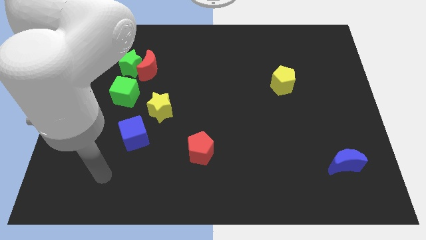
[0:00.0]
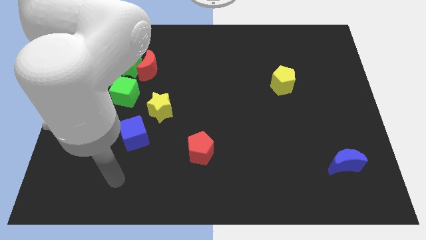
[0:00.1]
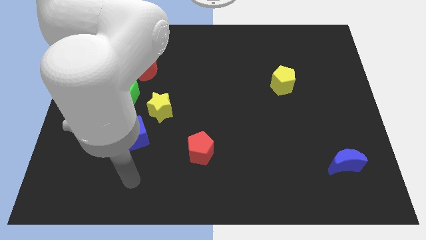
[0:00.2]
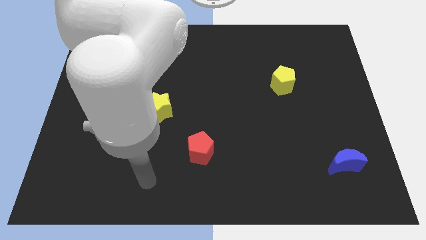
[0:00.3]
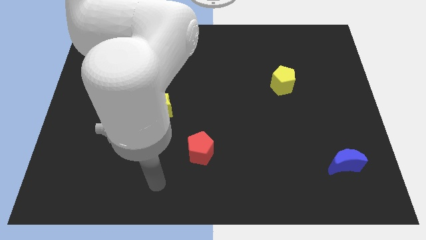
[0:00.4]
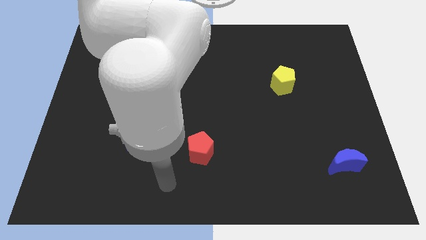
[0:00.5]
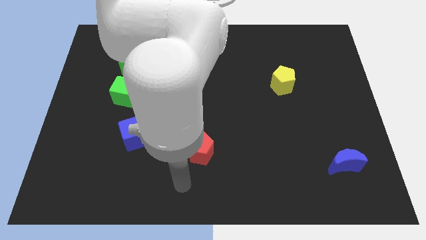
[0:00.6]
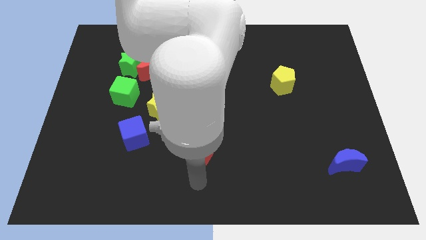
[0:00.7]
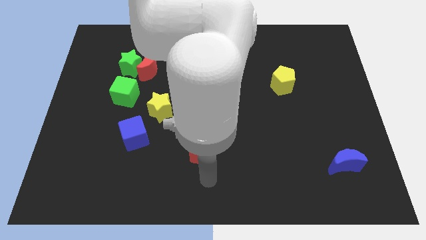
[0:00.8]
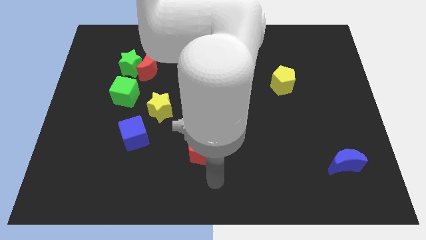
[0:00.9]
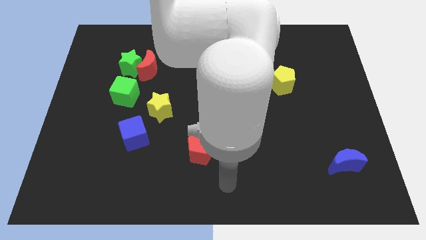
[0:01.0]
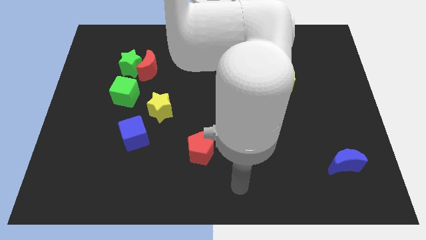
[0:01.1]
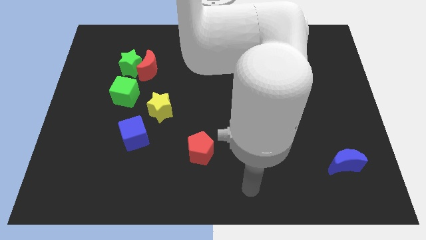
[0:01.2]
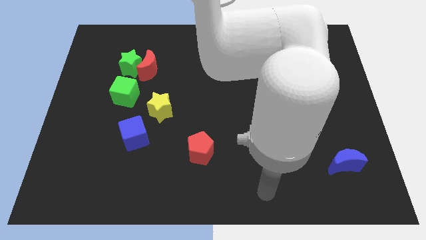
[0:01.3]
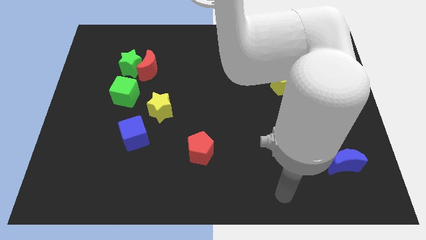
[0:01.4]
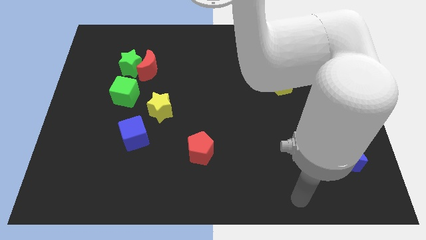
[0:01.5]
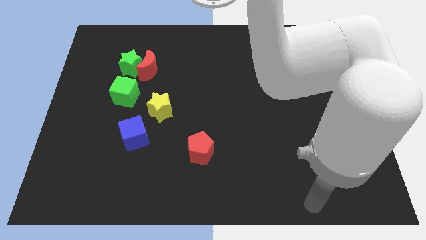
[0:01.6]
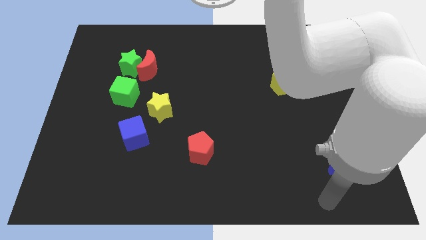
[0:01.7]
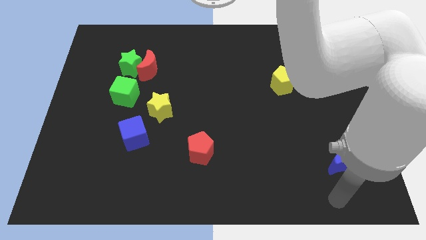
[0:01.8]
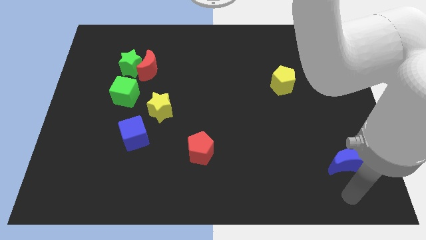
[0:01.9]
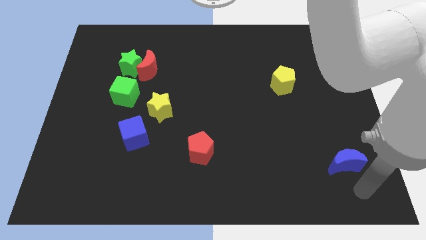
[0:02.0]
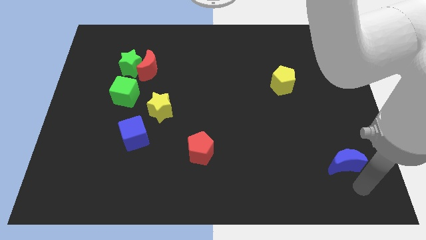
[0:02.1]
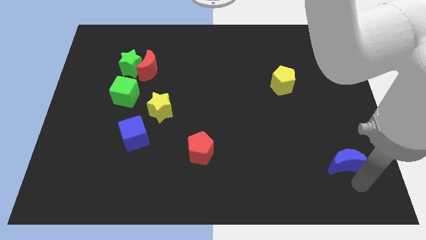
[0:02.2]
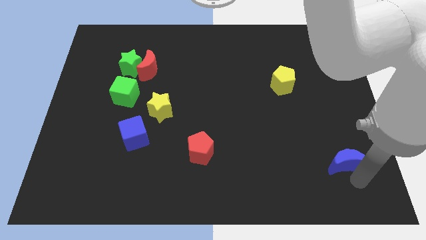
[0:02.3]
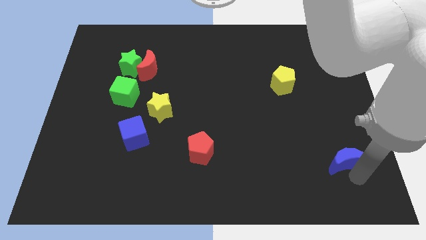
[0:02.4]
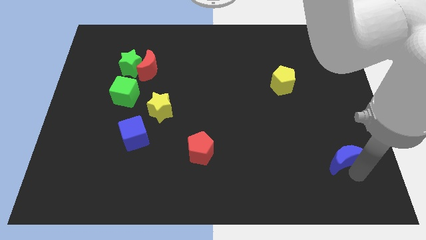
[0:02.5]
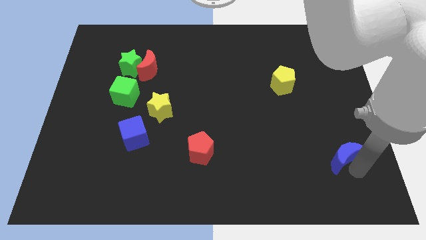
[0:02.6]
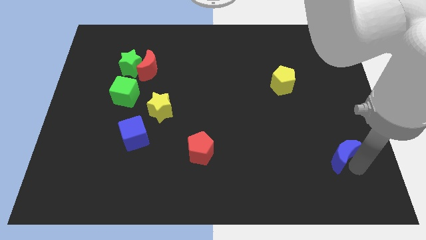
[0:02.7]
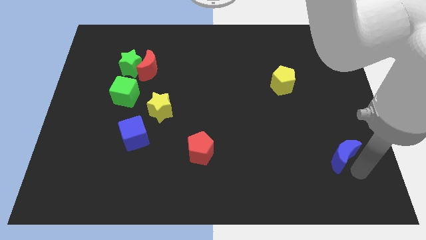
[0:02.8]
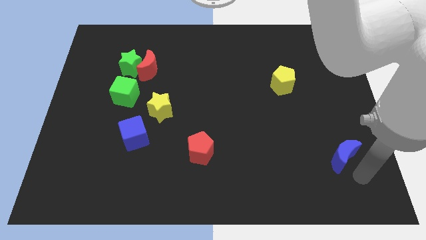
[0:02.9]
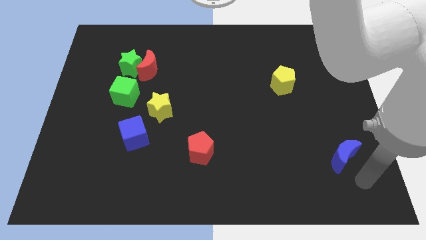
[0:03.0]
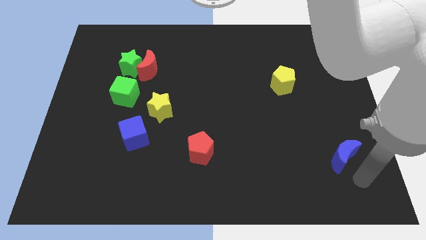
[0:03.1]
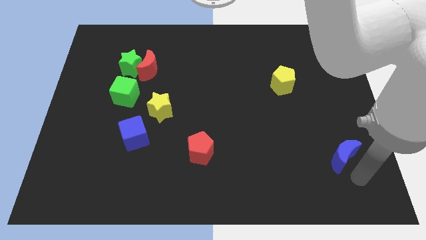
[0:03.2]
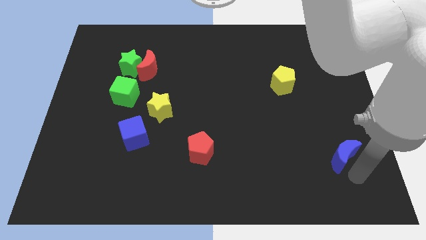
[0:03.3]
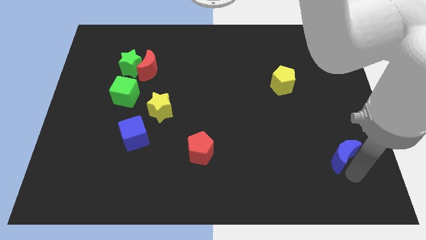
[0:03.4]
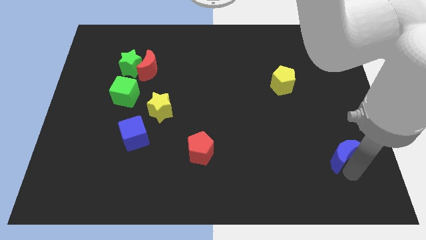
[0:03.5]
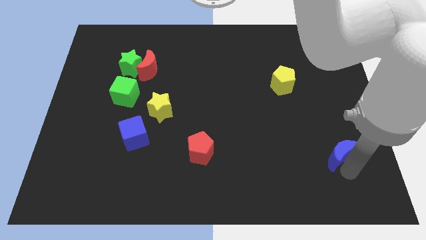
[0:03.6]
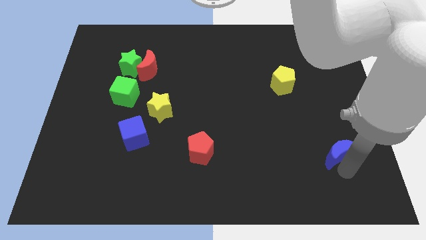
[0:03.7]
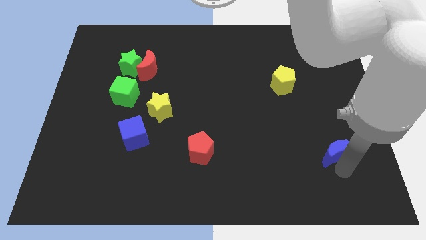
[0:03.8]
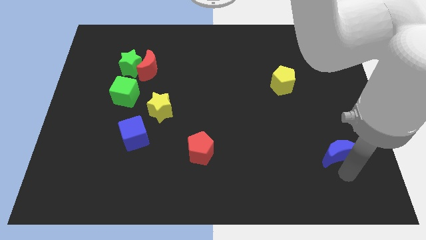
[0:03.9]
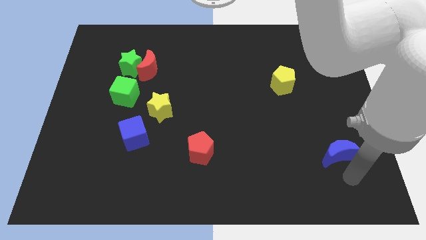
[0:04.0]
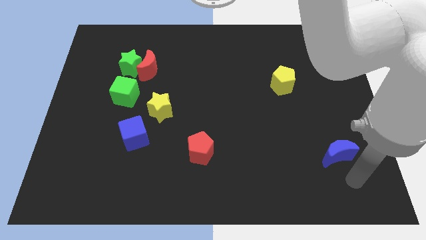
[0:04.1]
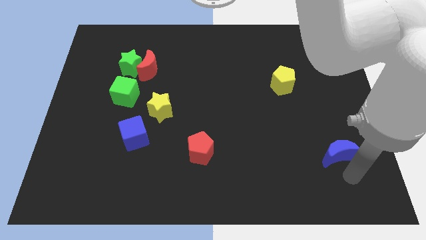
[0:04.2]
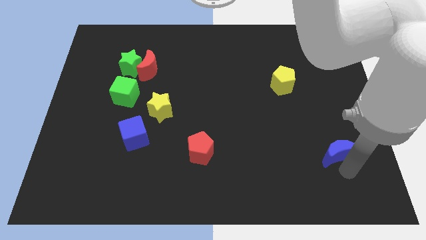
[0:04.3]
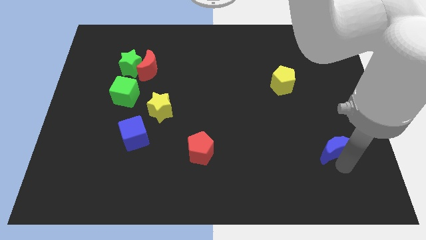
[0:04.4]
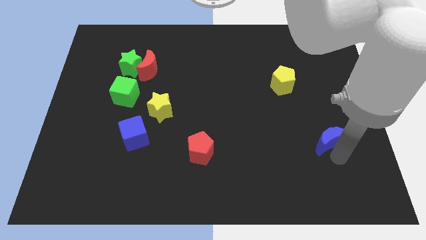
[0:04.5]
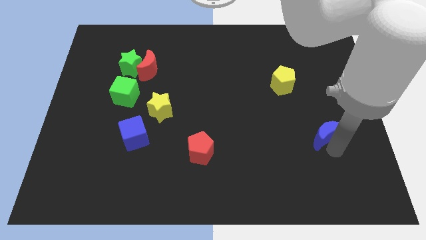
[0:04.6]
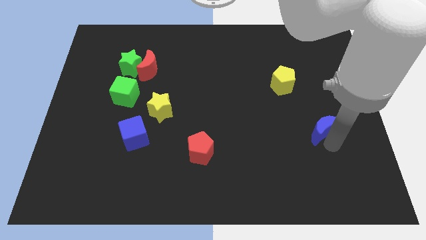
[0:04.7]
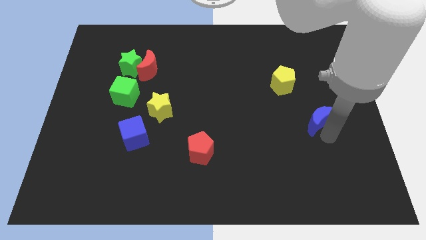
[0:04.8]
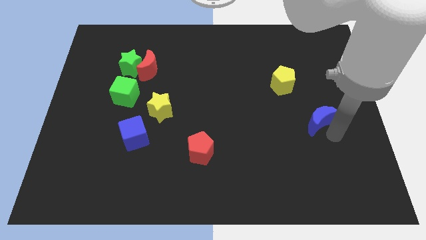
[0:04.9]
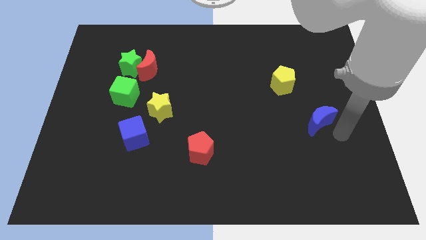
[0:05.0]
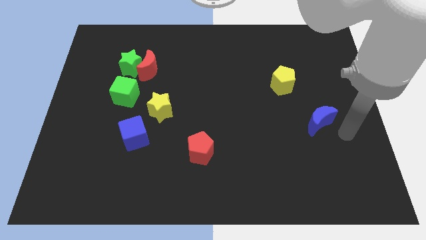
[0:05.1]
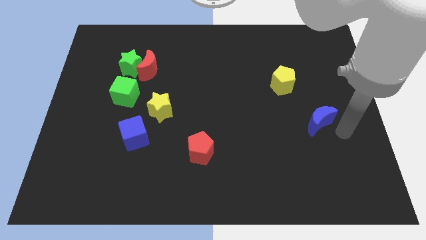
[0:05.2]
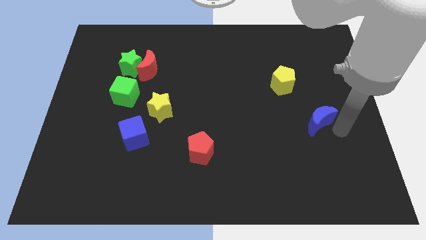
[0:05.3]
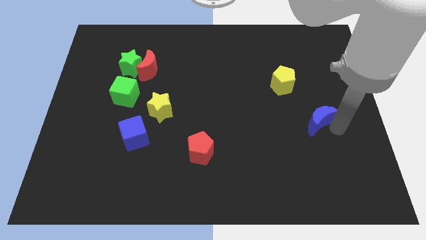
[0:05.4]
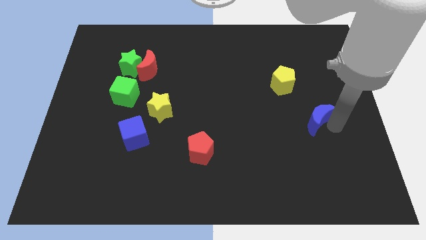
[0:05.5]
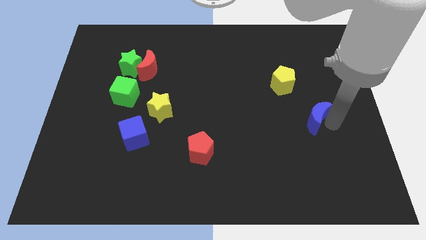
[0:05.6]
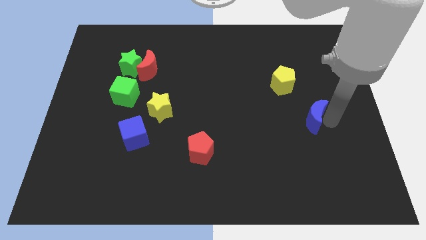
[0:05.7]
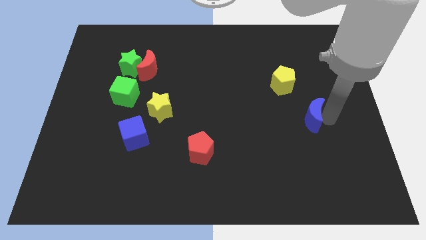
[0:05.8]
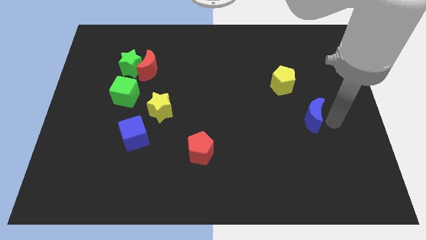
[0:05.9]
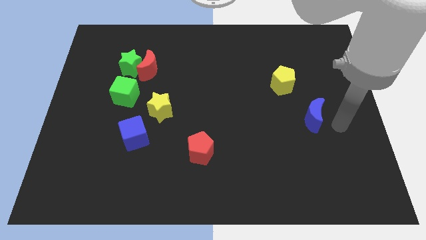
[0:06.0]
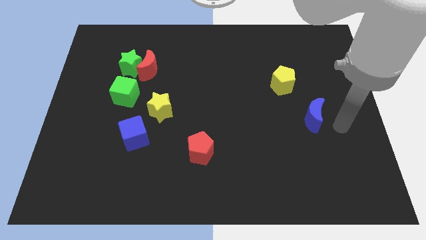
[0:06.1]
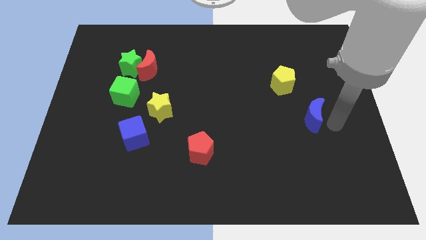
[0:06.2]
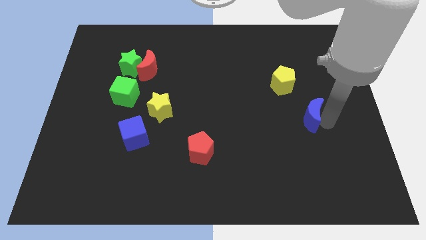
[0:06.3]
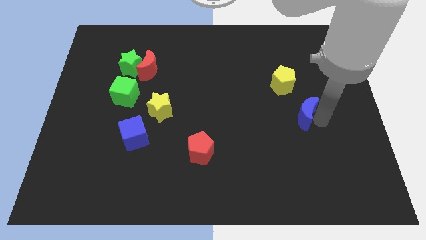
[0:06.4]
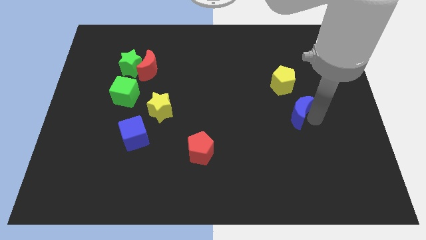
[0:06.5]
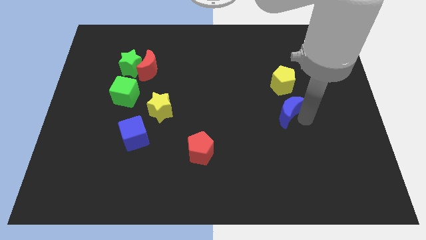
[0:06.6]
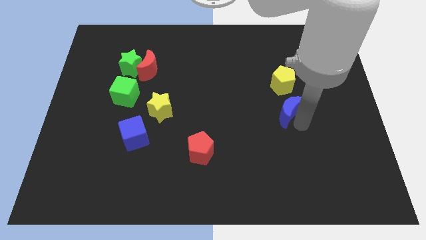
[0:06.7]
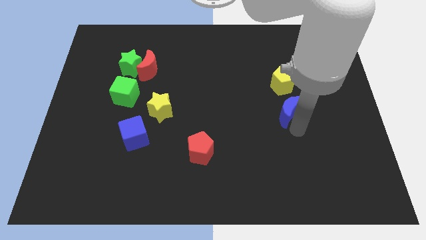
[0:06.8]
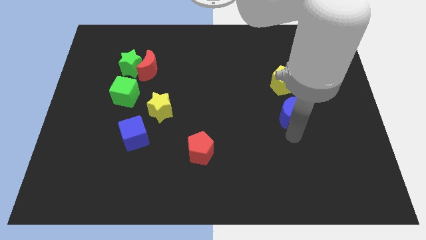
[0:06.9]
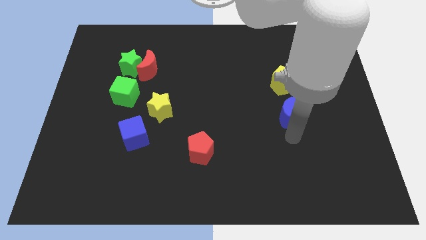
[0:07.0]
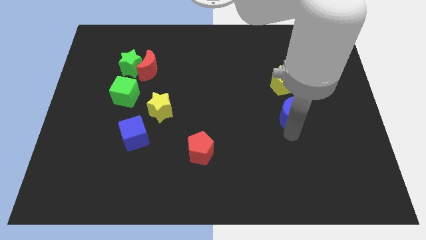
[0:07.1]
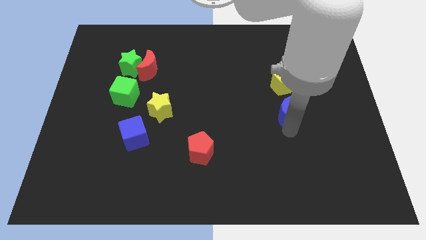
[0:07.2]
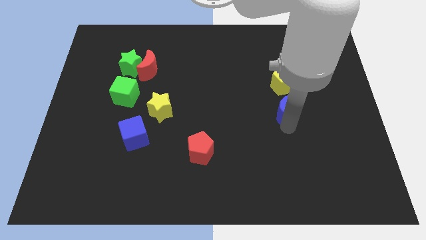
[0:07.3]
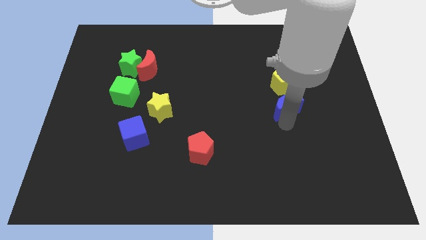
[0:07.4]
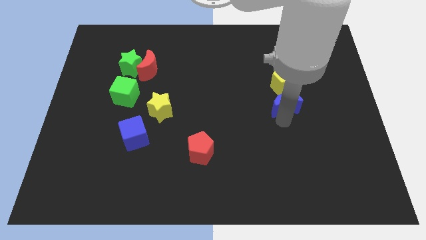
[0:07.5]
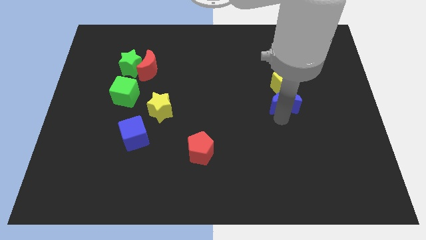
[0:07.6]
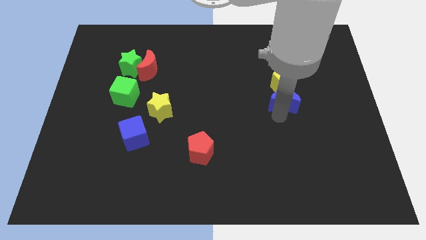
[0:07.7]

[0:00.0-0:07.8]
slide the blue moon to the yellow pentagon
